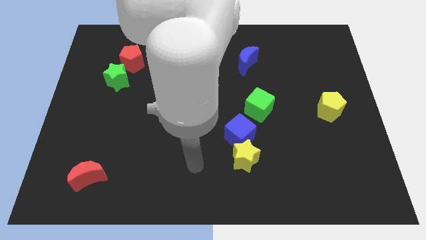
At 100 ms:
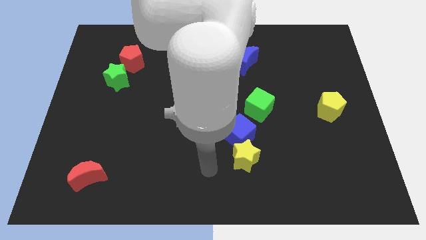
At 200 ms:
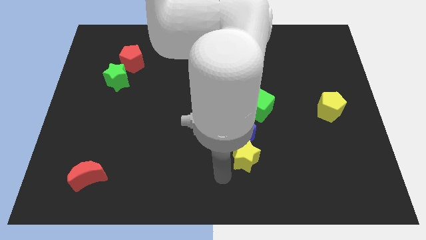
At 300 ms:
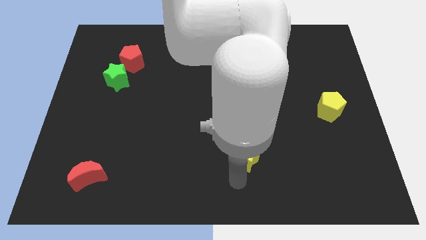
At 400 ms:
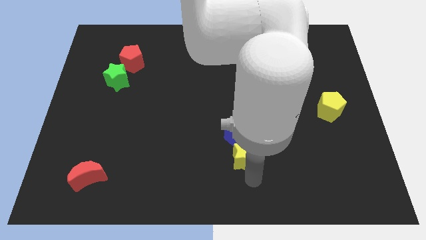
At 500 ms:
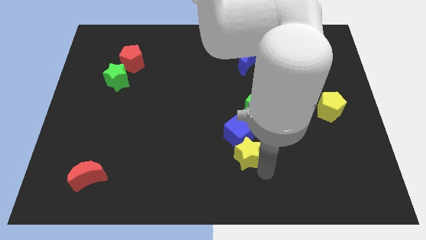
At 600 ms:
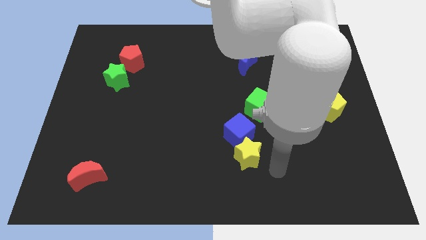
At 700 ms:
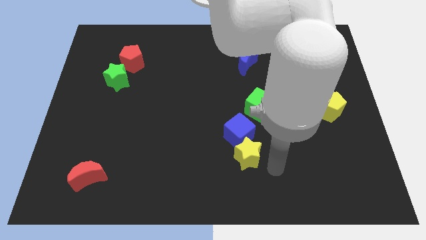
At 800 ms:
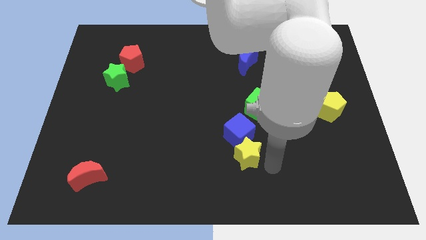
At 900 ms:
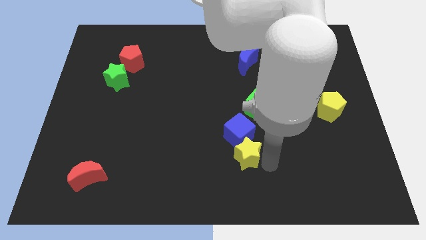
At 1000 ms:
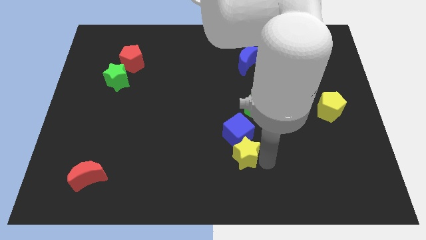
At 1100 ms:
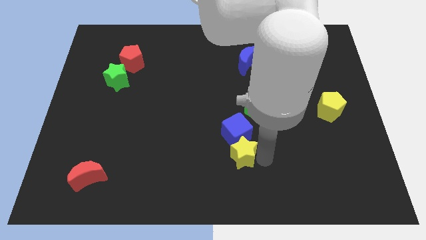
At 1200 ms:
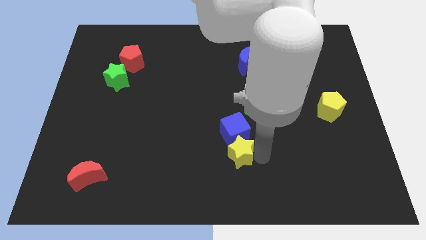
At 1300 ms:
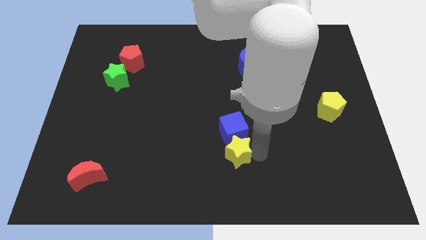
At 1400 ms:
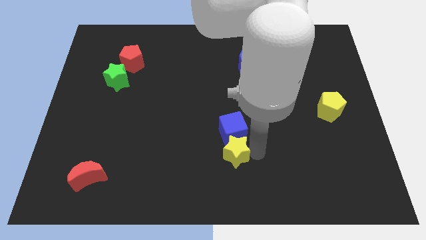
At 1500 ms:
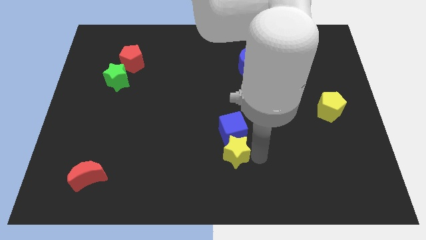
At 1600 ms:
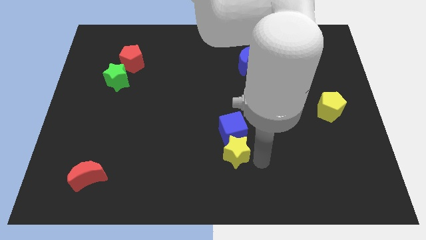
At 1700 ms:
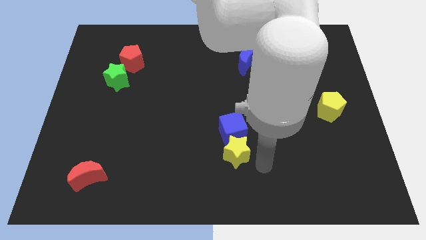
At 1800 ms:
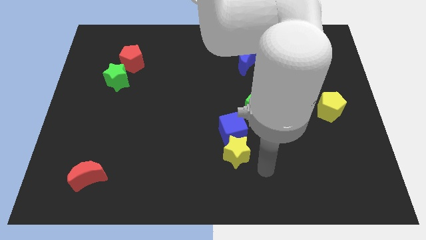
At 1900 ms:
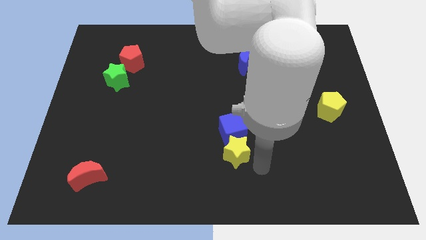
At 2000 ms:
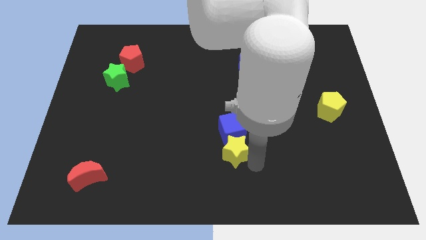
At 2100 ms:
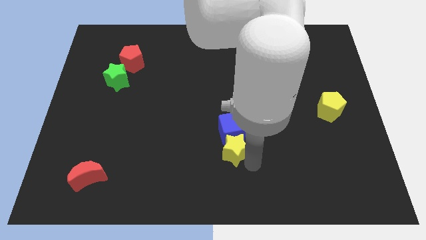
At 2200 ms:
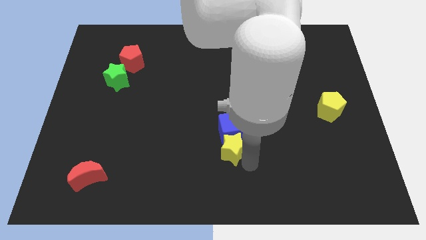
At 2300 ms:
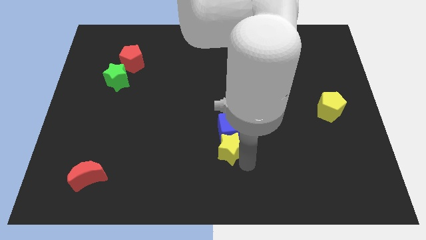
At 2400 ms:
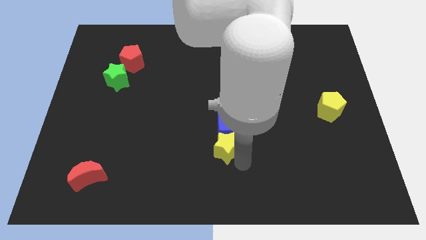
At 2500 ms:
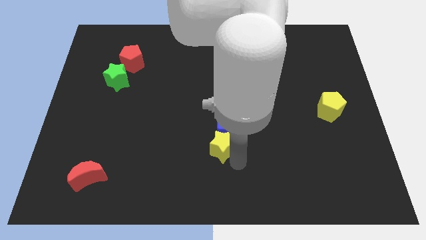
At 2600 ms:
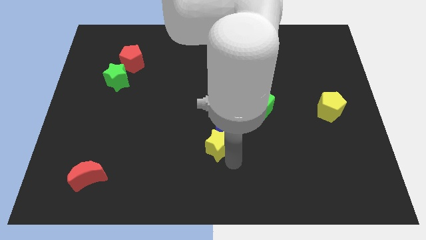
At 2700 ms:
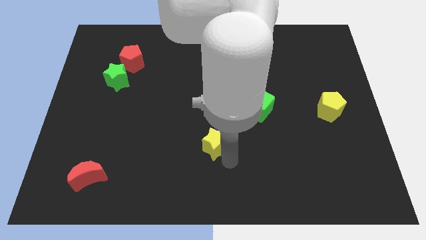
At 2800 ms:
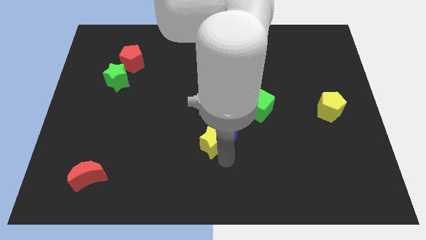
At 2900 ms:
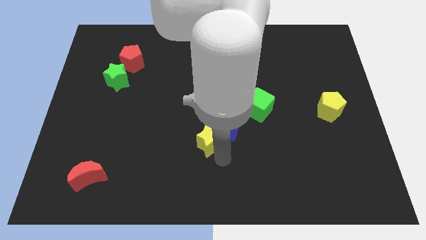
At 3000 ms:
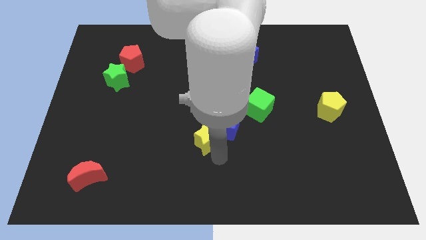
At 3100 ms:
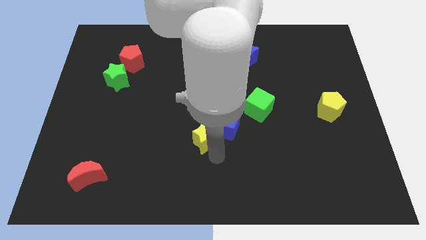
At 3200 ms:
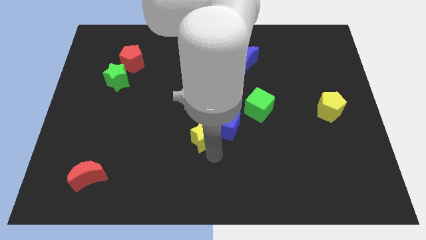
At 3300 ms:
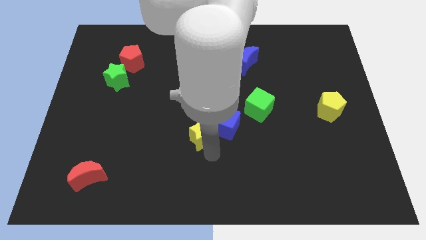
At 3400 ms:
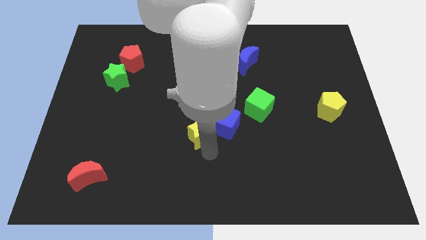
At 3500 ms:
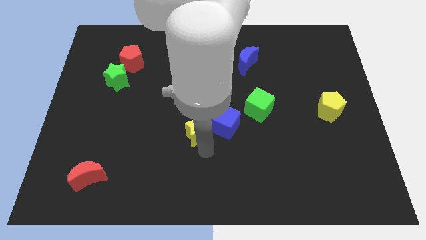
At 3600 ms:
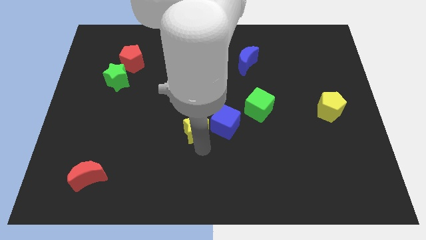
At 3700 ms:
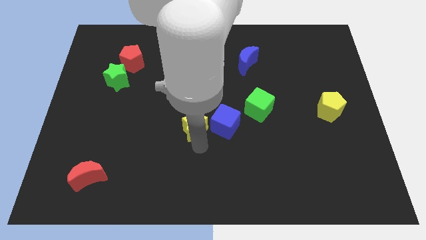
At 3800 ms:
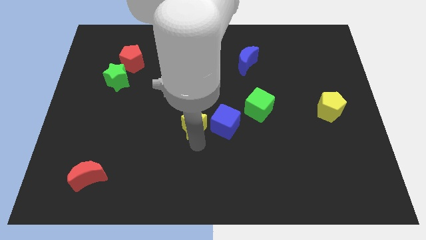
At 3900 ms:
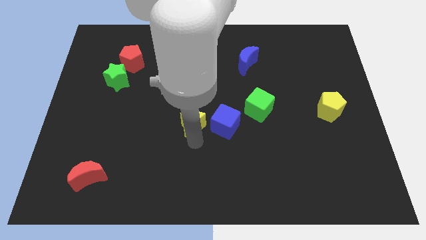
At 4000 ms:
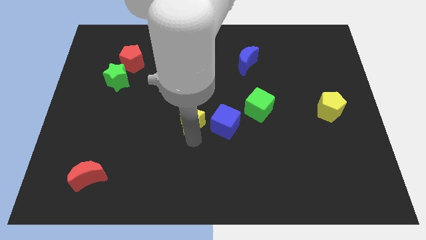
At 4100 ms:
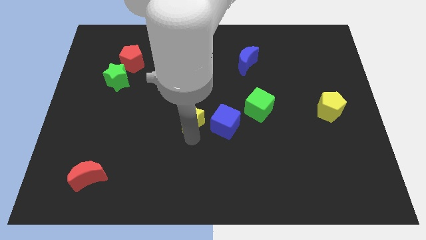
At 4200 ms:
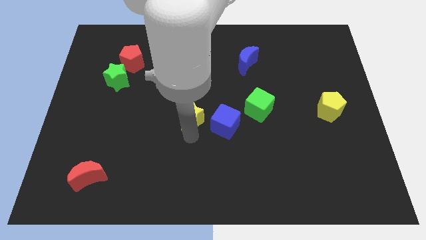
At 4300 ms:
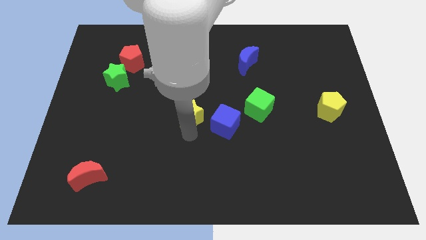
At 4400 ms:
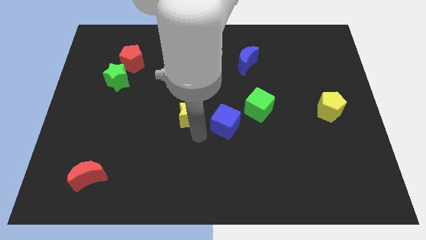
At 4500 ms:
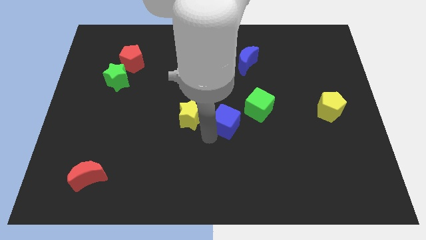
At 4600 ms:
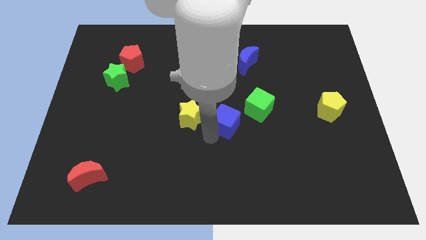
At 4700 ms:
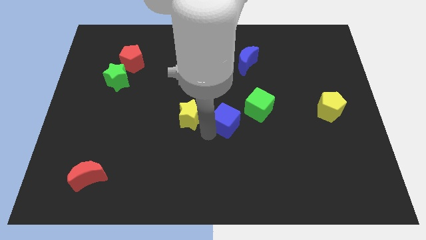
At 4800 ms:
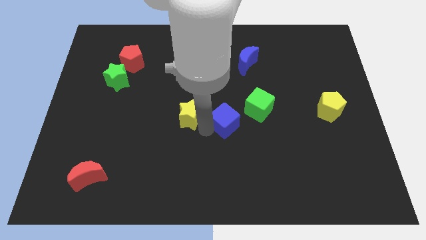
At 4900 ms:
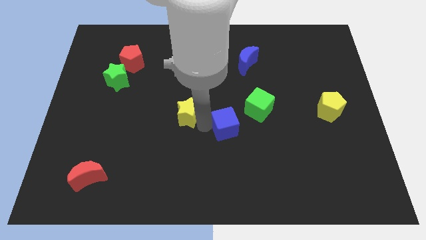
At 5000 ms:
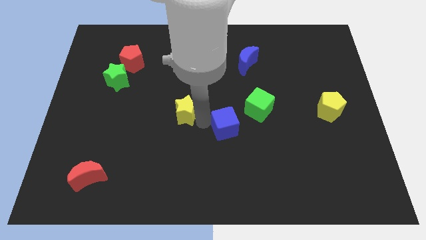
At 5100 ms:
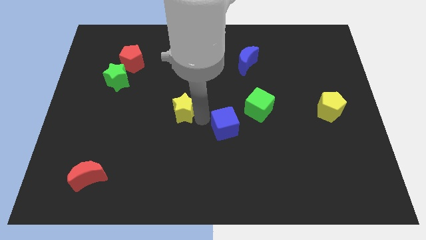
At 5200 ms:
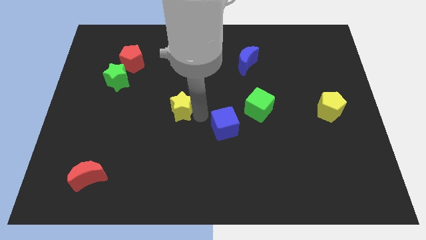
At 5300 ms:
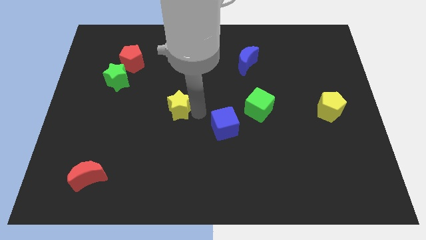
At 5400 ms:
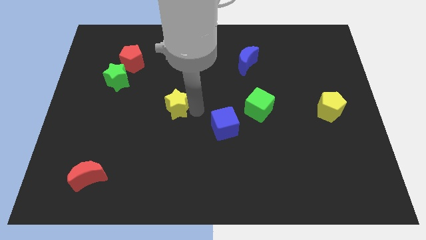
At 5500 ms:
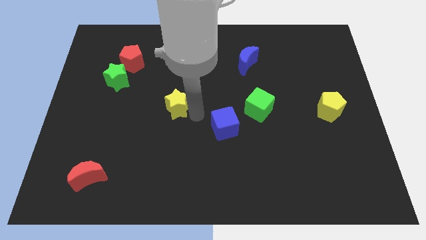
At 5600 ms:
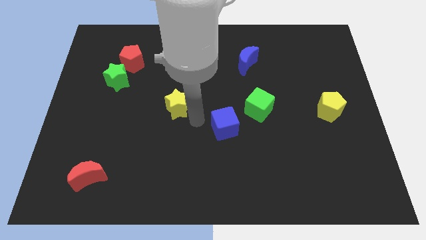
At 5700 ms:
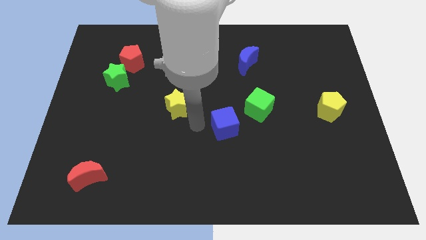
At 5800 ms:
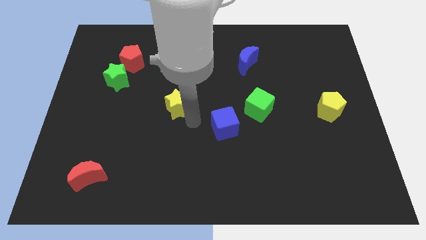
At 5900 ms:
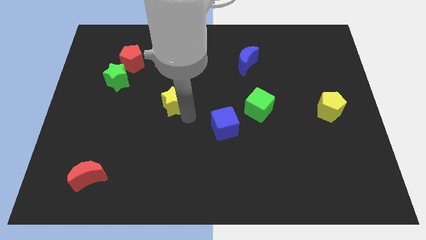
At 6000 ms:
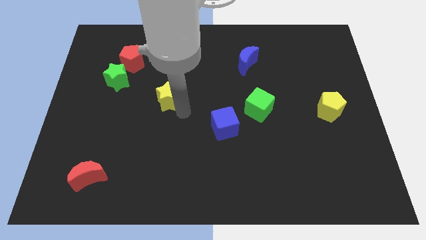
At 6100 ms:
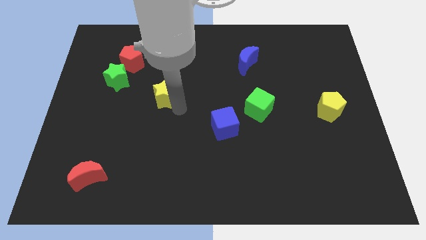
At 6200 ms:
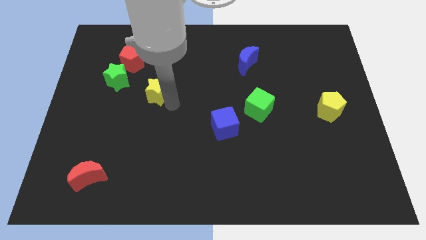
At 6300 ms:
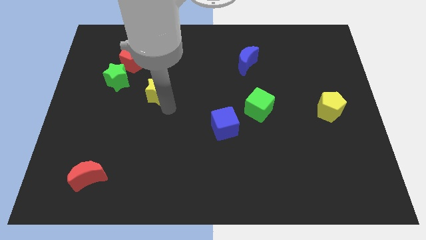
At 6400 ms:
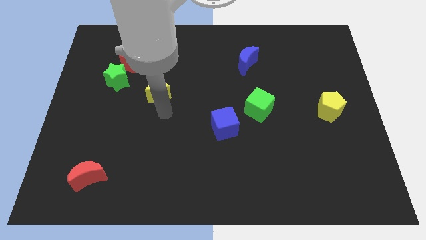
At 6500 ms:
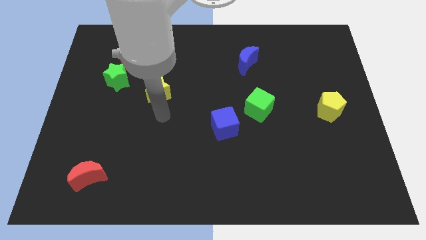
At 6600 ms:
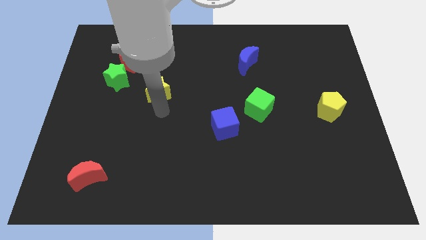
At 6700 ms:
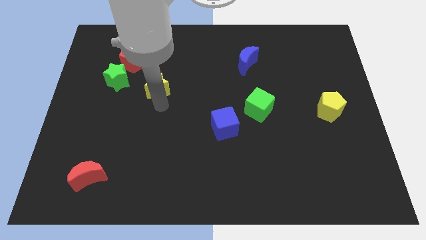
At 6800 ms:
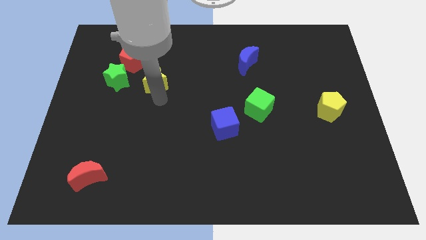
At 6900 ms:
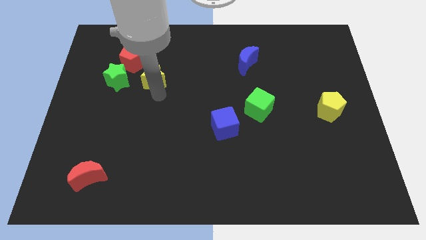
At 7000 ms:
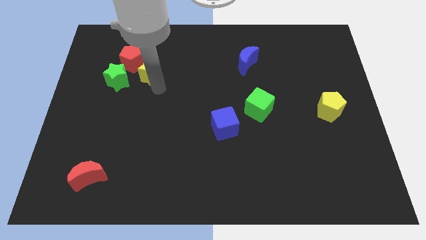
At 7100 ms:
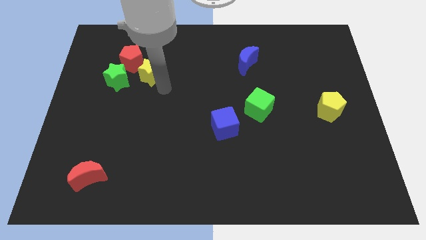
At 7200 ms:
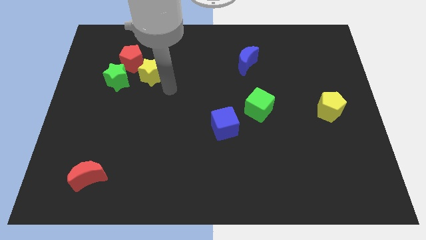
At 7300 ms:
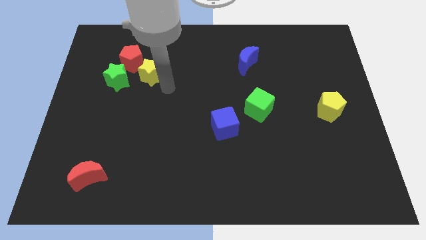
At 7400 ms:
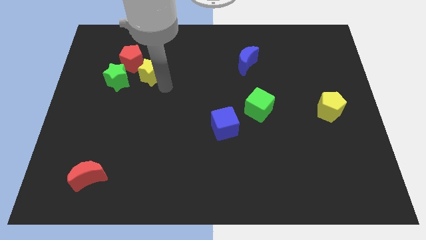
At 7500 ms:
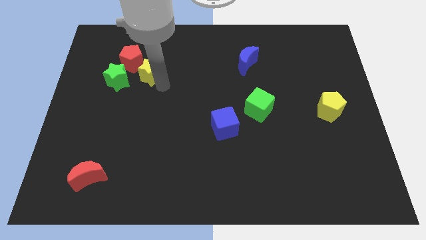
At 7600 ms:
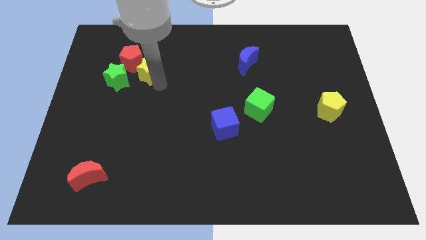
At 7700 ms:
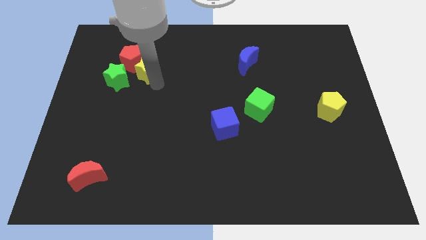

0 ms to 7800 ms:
put the yellow star next to the red pentagon

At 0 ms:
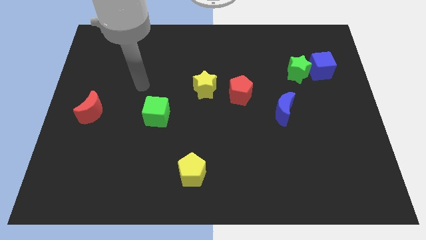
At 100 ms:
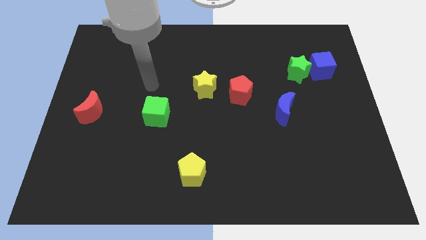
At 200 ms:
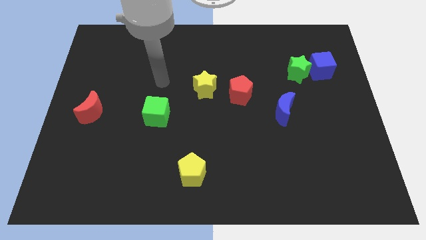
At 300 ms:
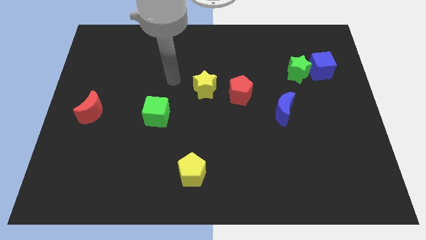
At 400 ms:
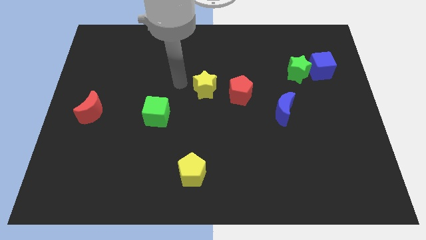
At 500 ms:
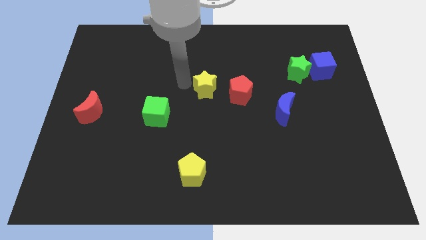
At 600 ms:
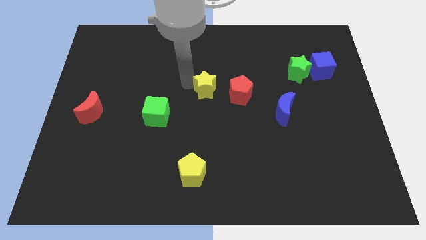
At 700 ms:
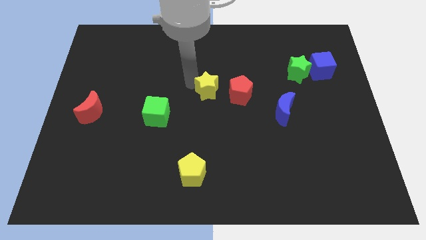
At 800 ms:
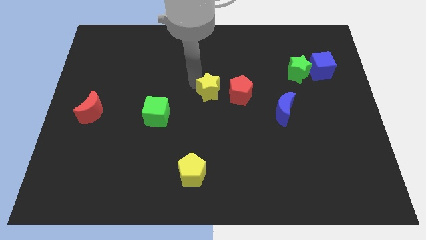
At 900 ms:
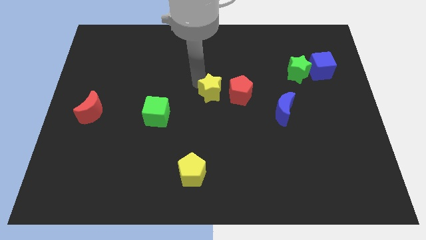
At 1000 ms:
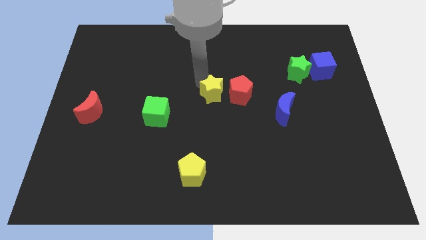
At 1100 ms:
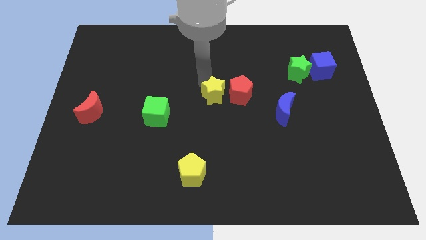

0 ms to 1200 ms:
push the yellow star next to the red pentagon
